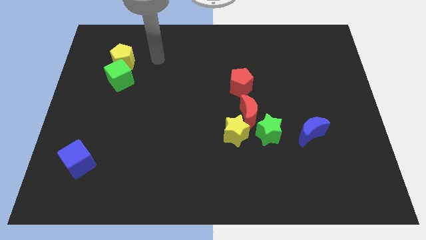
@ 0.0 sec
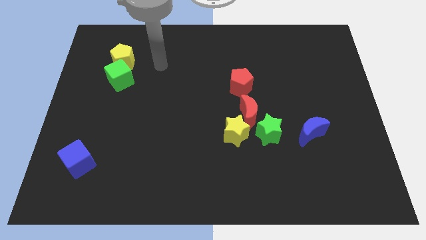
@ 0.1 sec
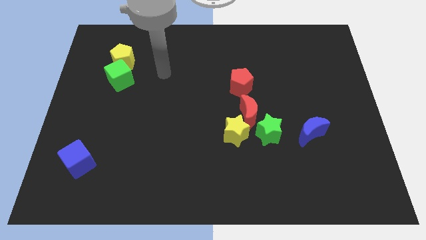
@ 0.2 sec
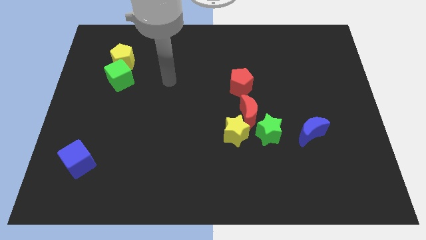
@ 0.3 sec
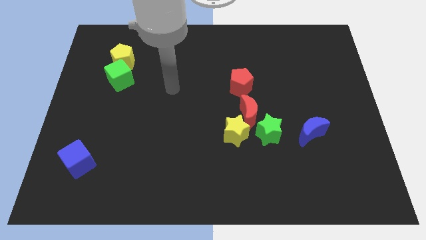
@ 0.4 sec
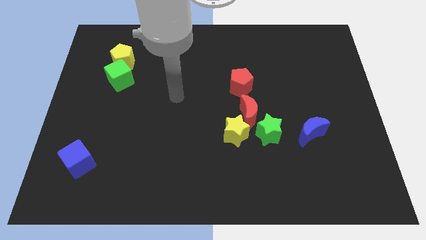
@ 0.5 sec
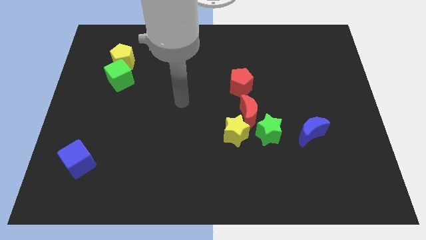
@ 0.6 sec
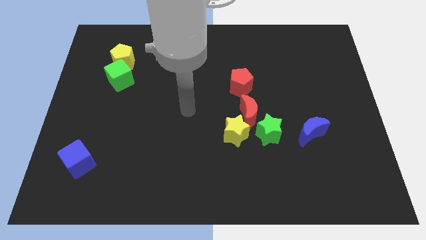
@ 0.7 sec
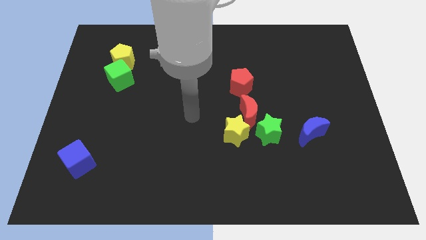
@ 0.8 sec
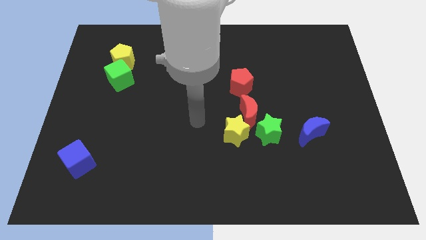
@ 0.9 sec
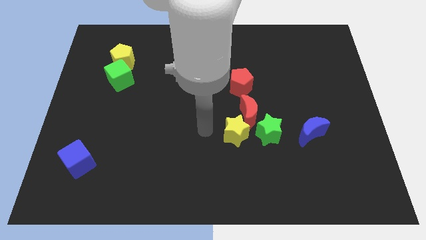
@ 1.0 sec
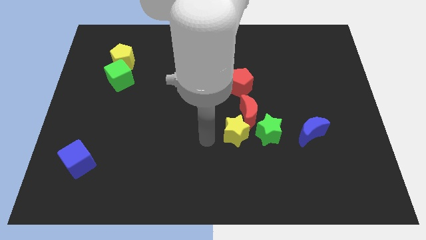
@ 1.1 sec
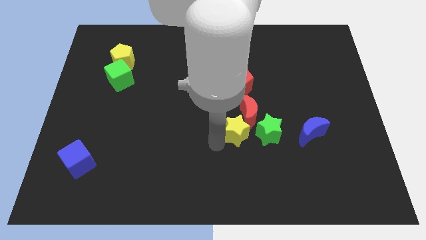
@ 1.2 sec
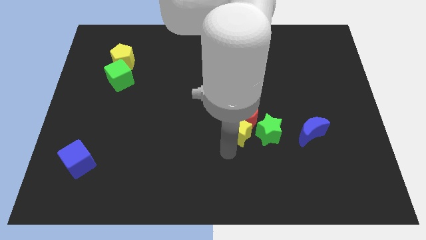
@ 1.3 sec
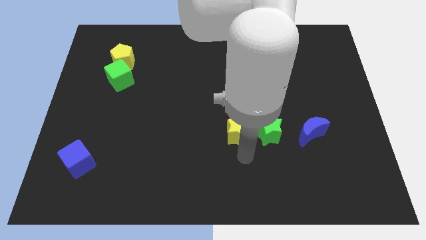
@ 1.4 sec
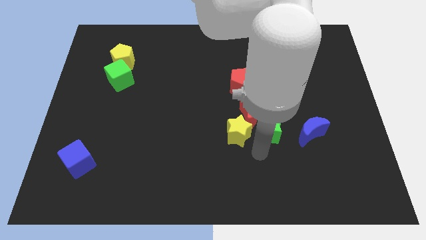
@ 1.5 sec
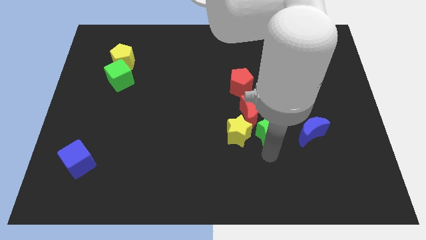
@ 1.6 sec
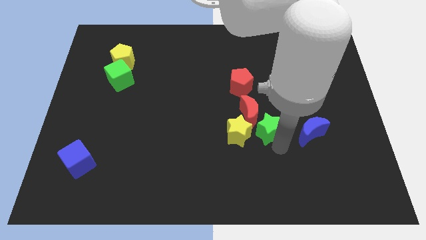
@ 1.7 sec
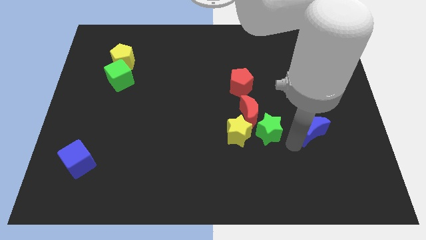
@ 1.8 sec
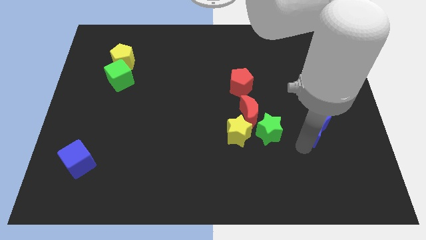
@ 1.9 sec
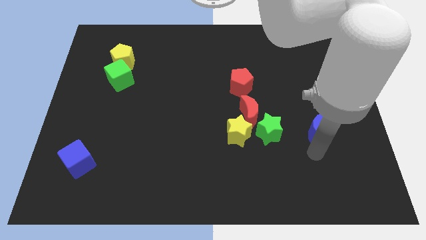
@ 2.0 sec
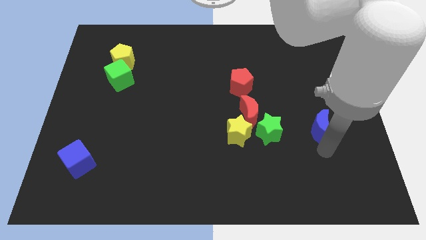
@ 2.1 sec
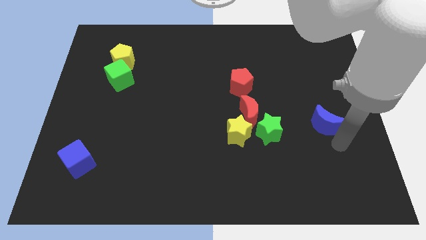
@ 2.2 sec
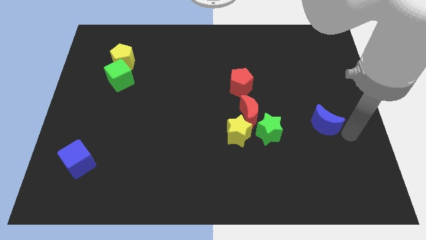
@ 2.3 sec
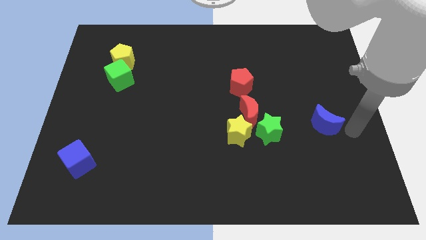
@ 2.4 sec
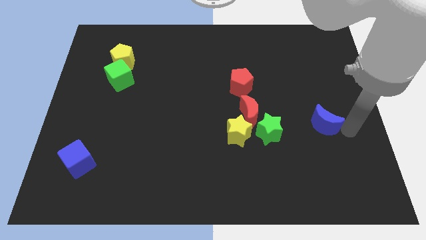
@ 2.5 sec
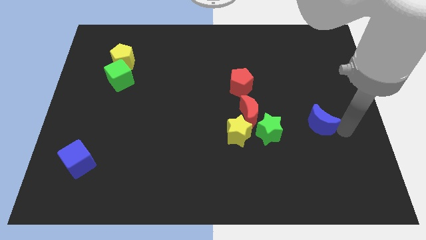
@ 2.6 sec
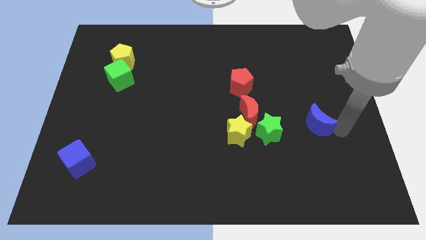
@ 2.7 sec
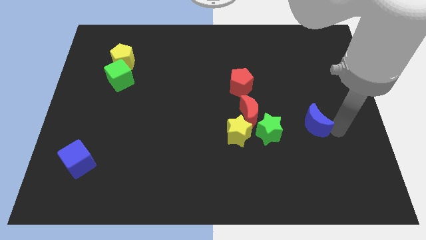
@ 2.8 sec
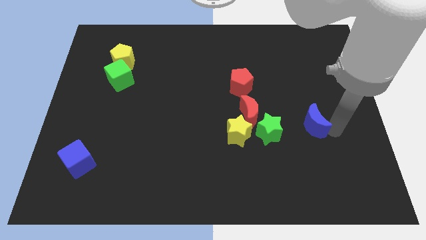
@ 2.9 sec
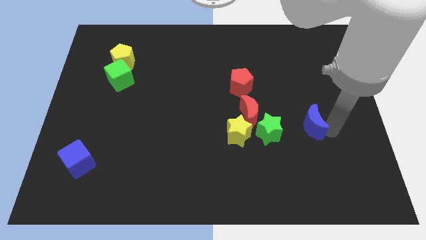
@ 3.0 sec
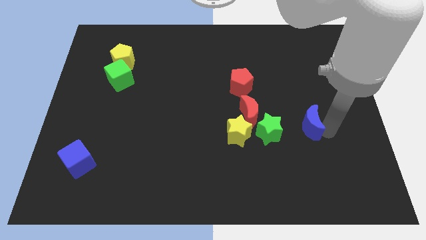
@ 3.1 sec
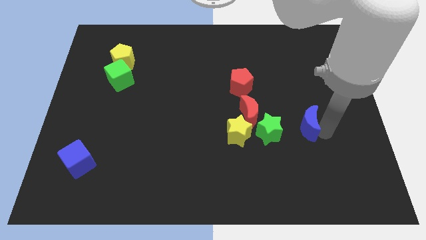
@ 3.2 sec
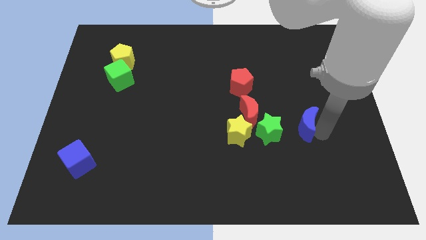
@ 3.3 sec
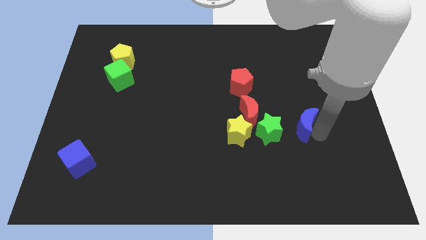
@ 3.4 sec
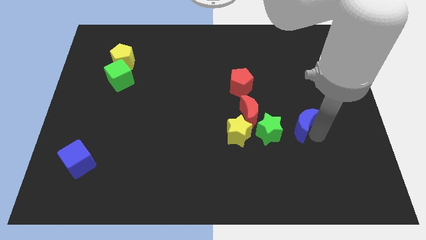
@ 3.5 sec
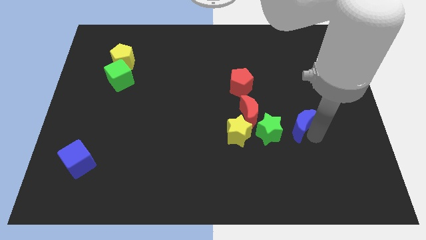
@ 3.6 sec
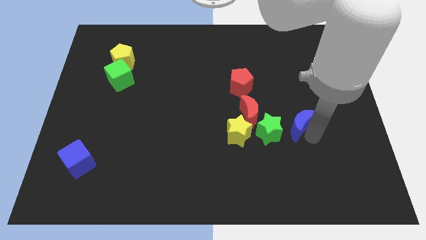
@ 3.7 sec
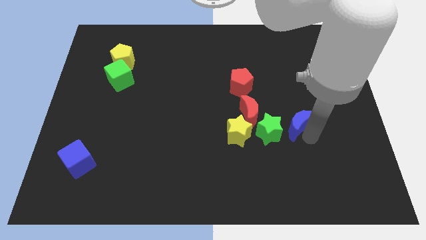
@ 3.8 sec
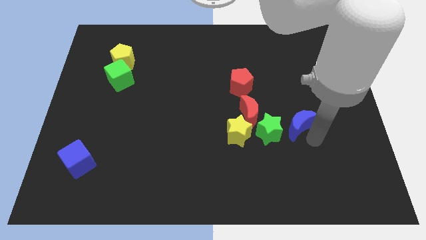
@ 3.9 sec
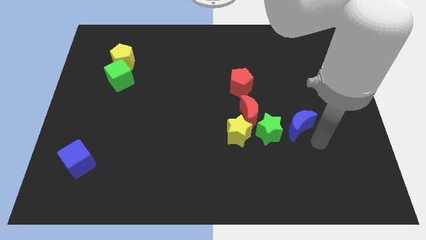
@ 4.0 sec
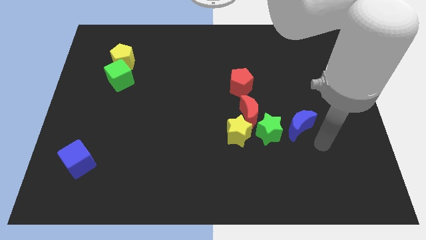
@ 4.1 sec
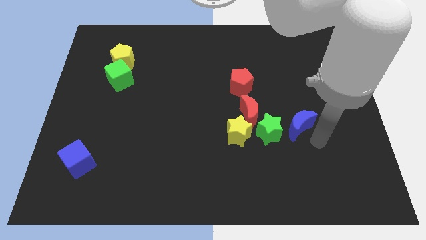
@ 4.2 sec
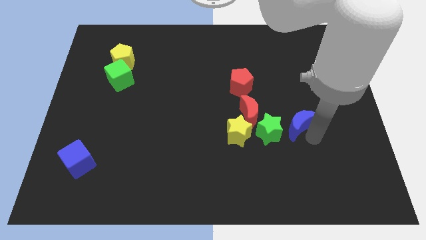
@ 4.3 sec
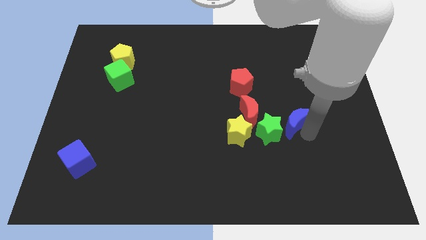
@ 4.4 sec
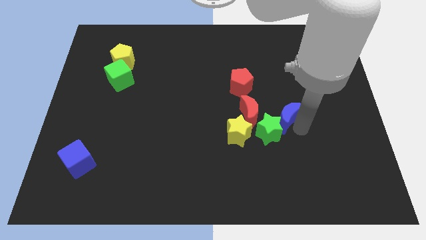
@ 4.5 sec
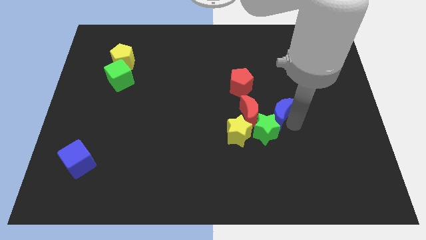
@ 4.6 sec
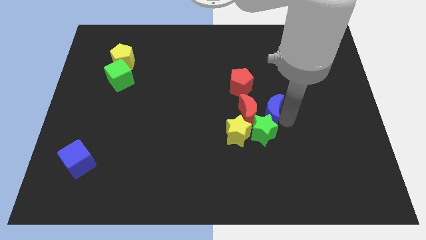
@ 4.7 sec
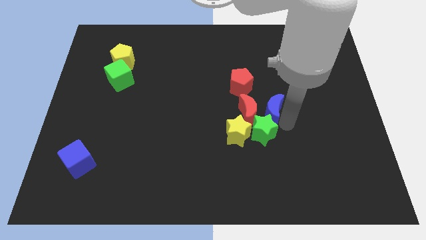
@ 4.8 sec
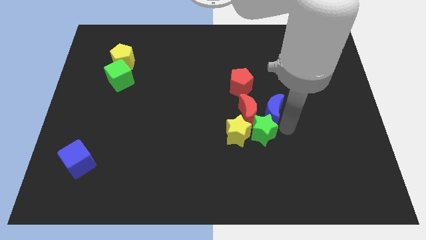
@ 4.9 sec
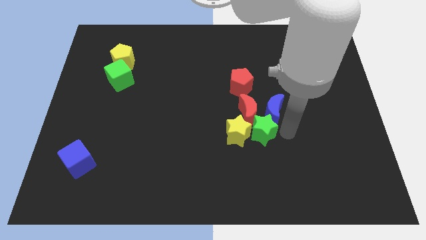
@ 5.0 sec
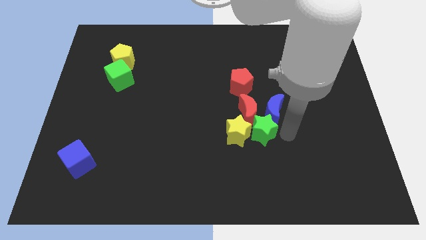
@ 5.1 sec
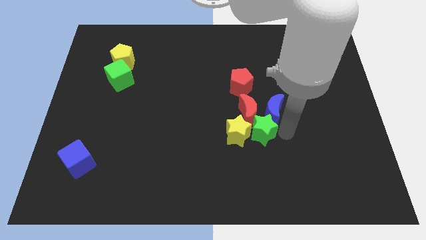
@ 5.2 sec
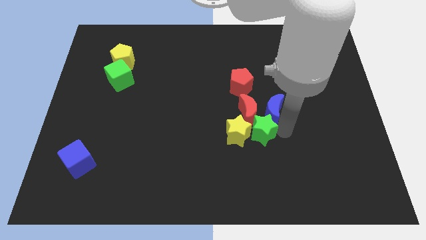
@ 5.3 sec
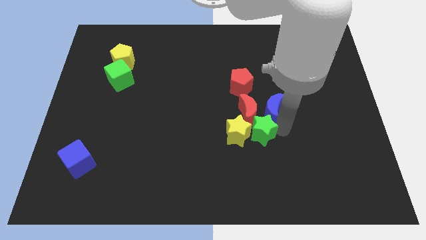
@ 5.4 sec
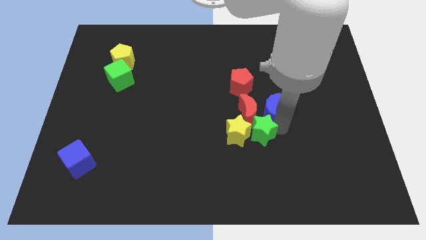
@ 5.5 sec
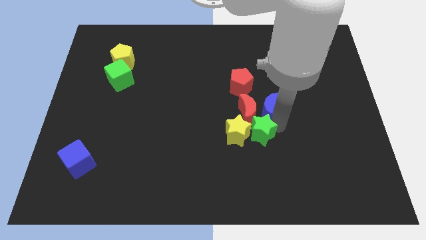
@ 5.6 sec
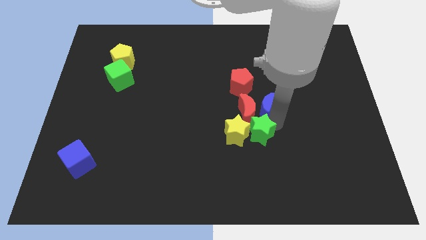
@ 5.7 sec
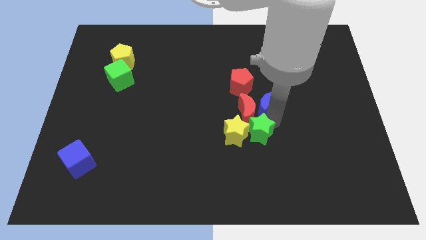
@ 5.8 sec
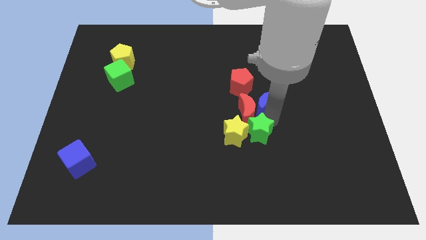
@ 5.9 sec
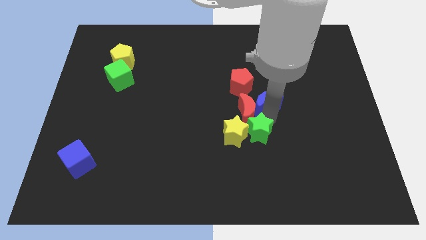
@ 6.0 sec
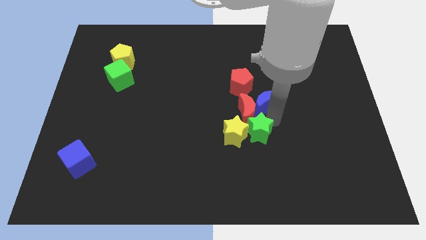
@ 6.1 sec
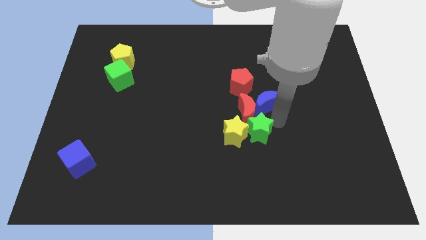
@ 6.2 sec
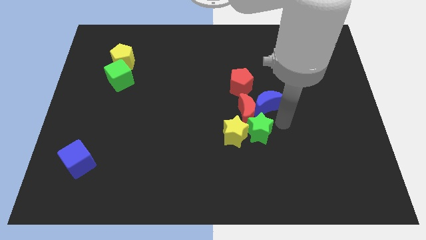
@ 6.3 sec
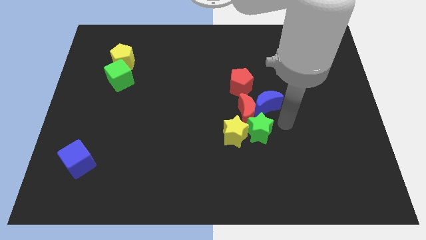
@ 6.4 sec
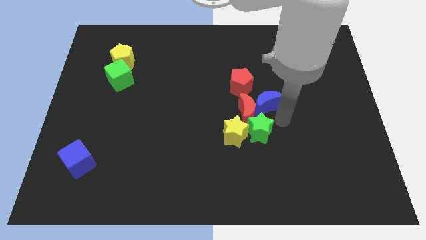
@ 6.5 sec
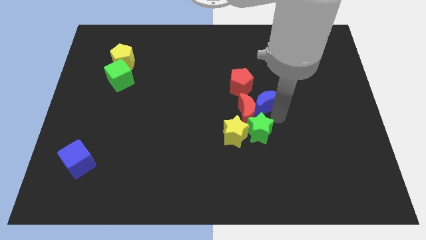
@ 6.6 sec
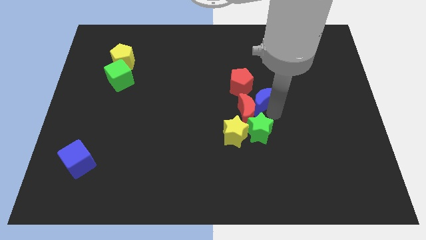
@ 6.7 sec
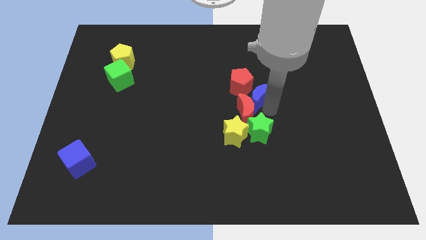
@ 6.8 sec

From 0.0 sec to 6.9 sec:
push the blue moon close to the red pentagon

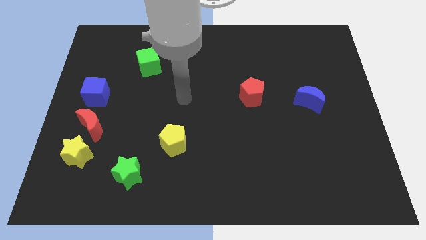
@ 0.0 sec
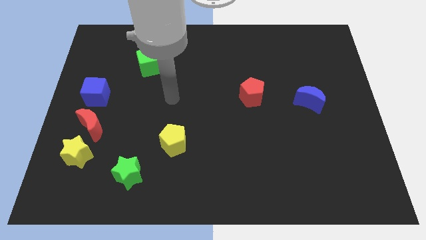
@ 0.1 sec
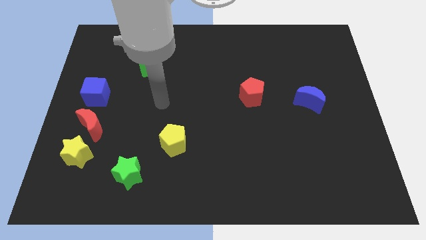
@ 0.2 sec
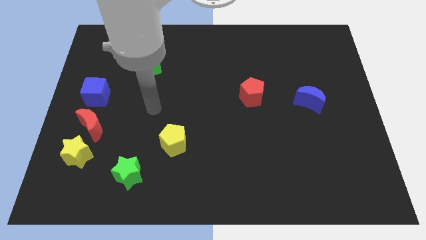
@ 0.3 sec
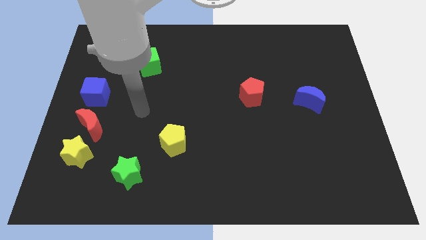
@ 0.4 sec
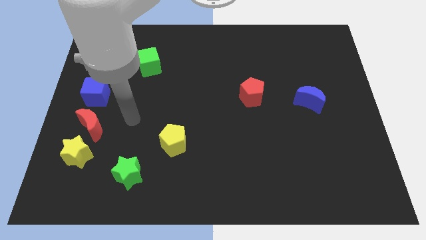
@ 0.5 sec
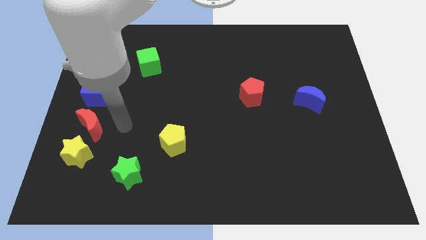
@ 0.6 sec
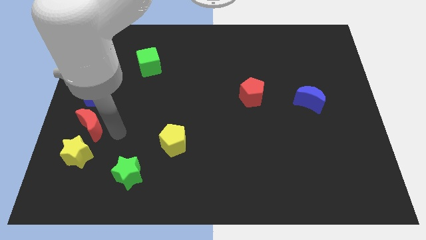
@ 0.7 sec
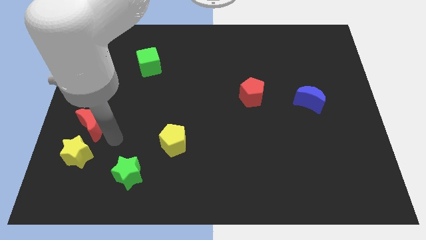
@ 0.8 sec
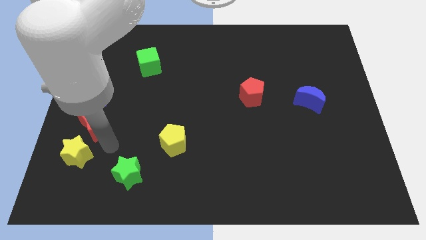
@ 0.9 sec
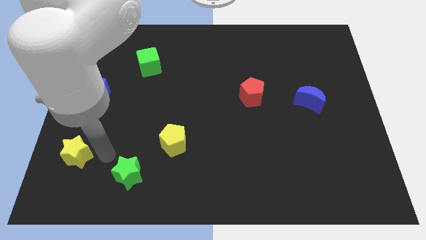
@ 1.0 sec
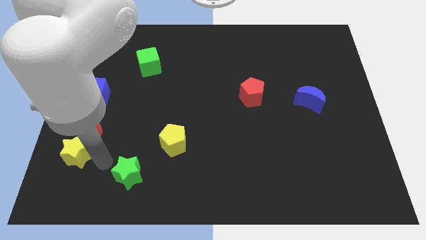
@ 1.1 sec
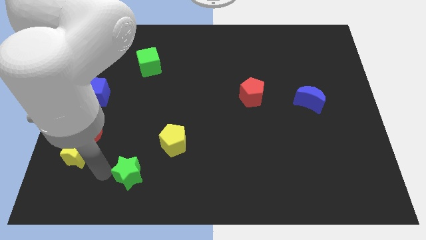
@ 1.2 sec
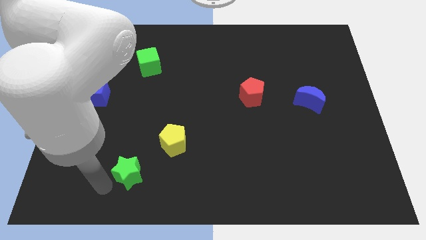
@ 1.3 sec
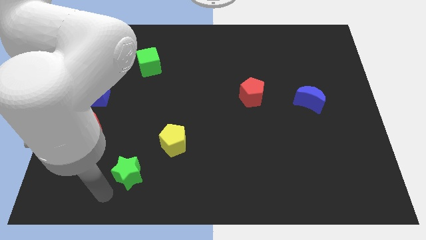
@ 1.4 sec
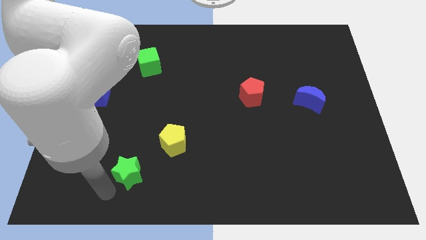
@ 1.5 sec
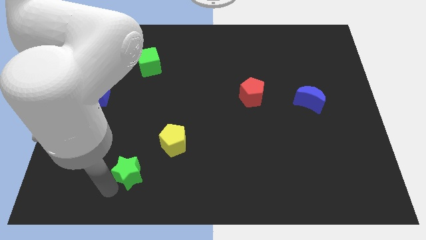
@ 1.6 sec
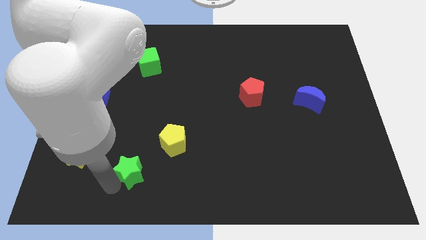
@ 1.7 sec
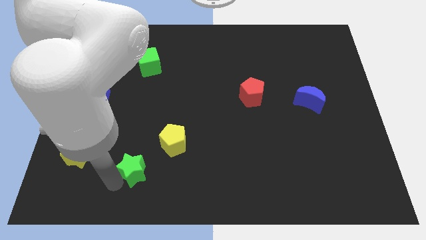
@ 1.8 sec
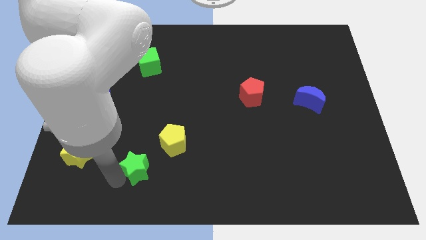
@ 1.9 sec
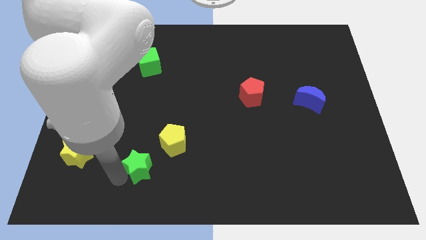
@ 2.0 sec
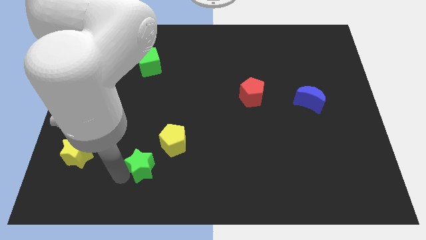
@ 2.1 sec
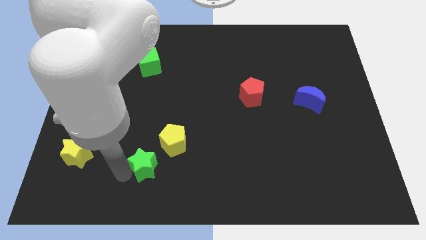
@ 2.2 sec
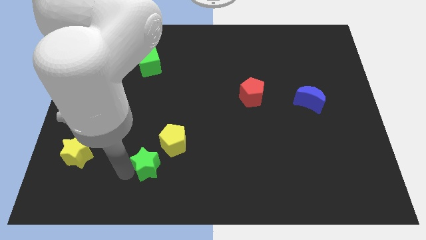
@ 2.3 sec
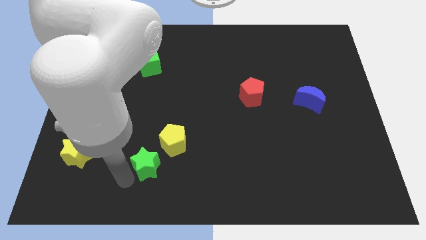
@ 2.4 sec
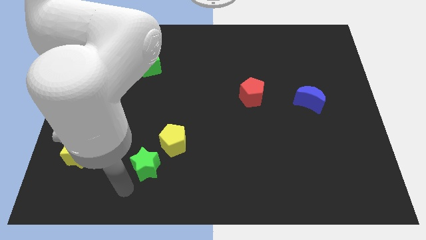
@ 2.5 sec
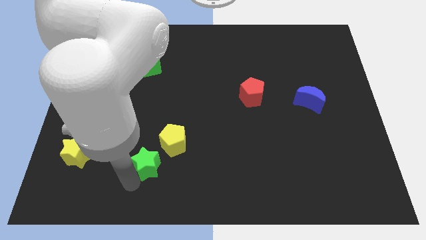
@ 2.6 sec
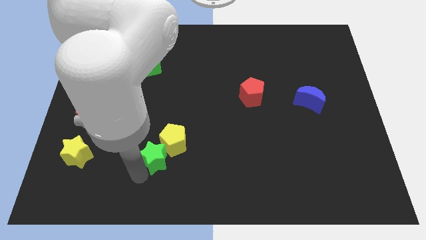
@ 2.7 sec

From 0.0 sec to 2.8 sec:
slide the green star towards the yellow pentagon
